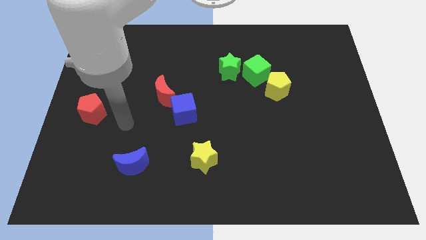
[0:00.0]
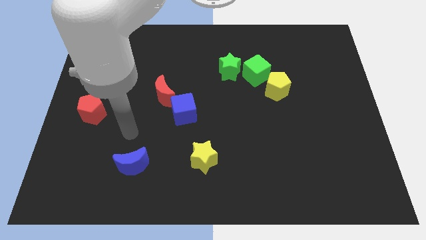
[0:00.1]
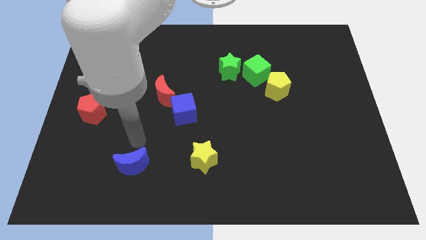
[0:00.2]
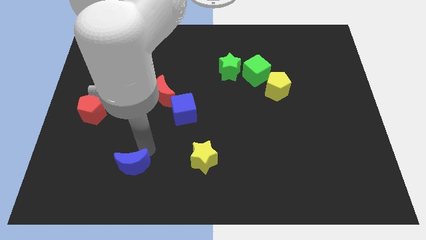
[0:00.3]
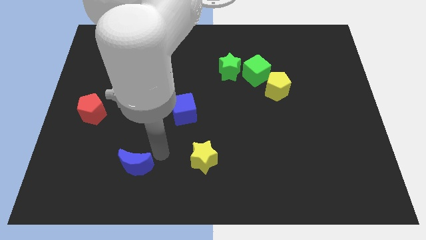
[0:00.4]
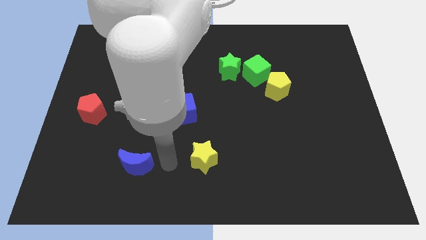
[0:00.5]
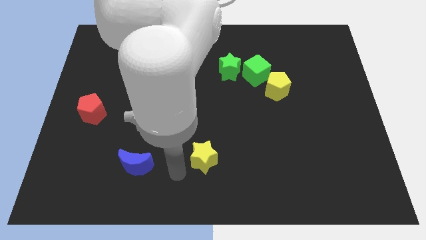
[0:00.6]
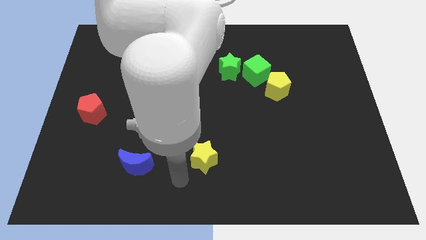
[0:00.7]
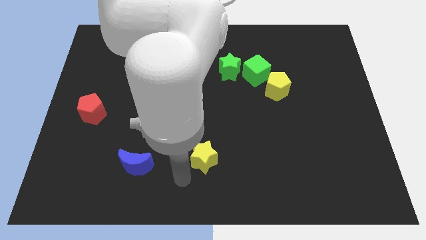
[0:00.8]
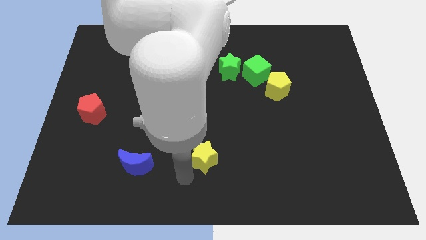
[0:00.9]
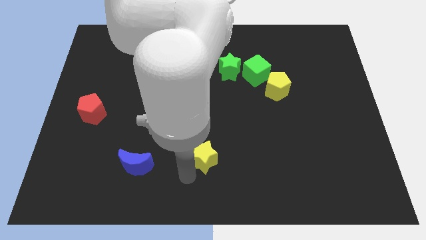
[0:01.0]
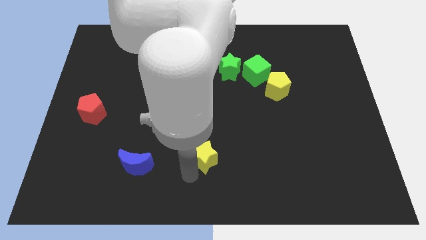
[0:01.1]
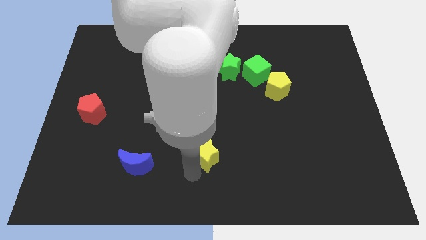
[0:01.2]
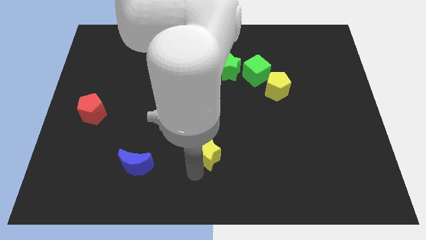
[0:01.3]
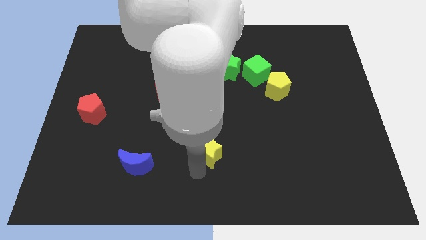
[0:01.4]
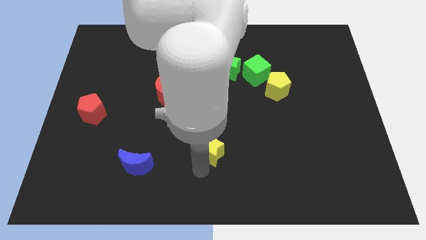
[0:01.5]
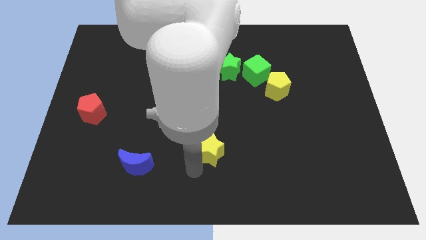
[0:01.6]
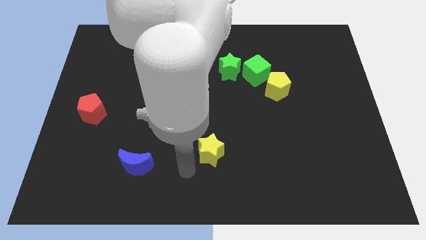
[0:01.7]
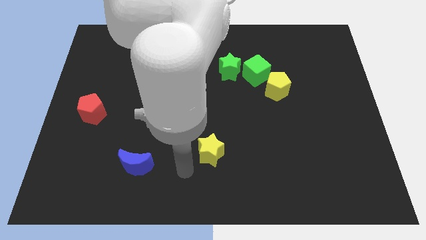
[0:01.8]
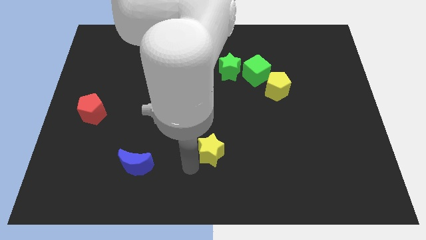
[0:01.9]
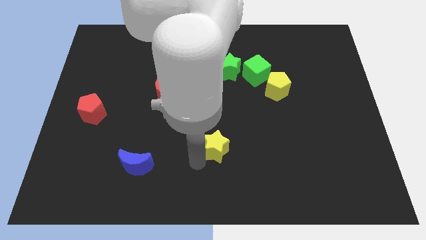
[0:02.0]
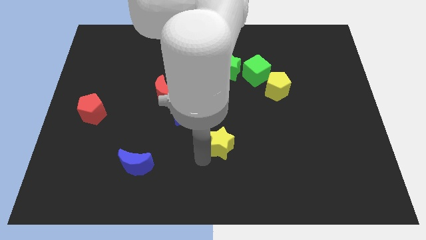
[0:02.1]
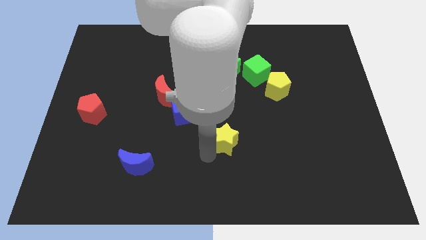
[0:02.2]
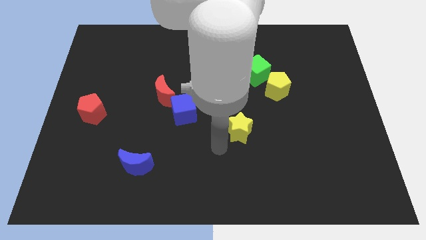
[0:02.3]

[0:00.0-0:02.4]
slide the yellow star upwards and right a little

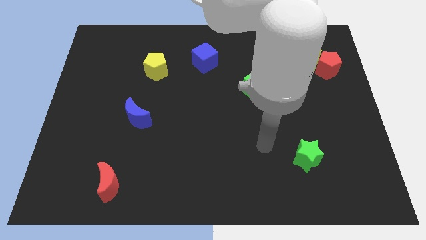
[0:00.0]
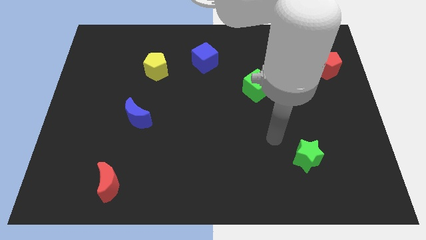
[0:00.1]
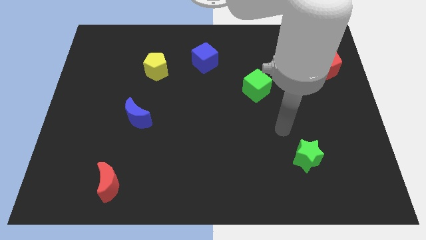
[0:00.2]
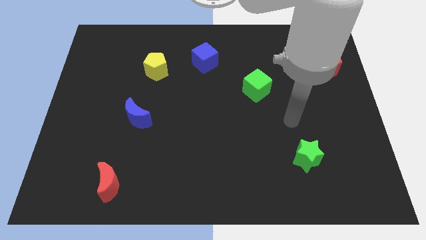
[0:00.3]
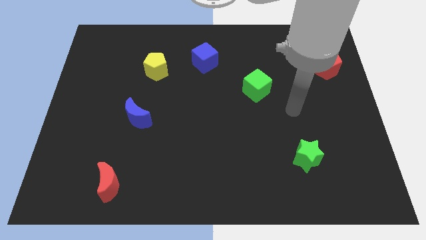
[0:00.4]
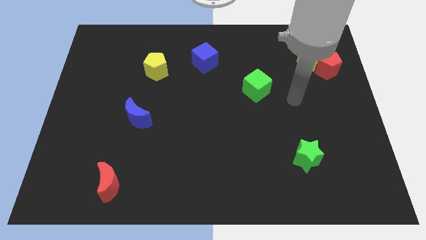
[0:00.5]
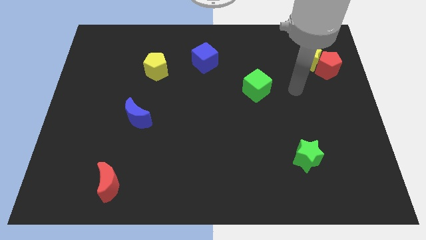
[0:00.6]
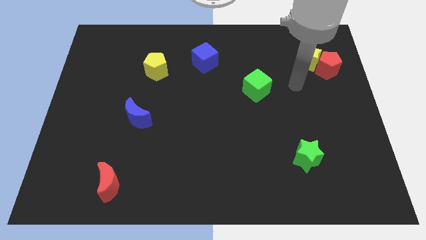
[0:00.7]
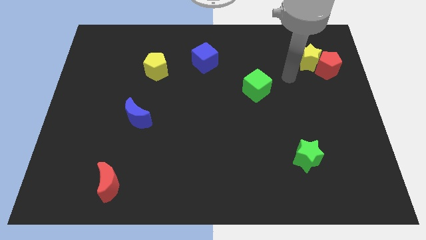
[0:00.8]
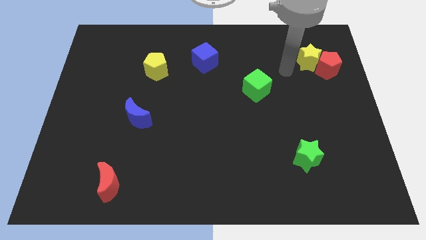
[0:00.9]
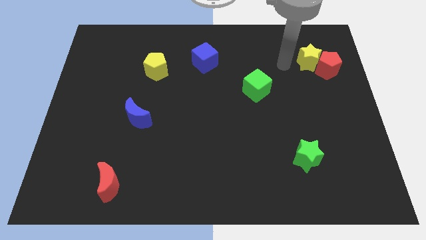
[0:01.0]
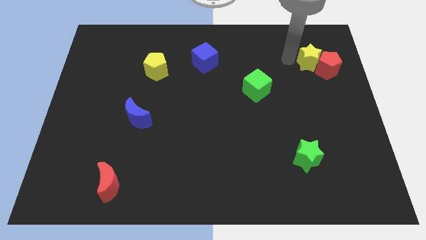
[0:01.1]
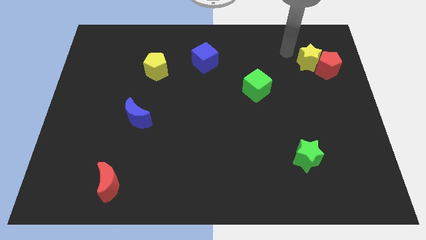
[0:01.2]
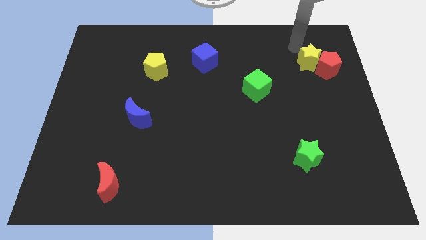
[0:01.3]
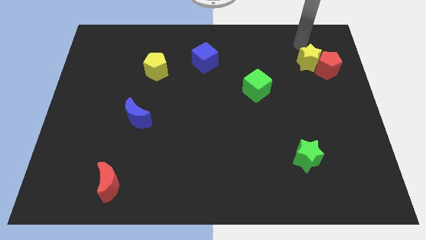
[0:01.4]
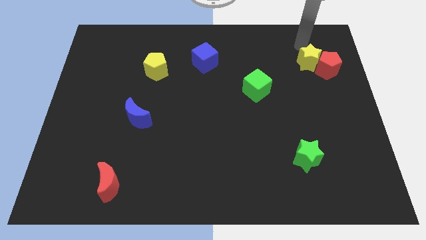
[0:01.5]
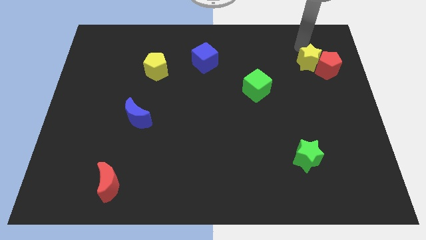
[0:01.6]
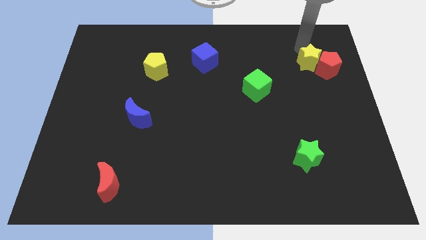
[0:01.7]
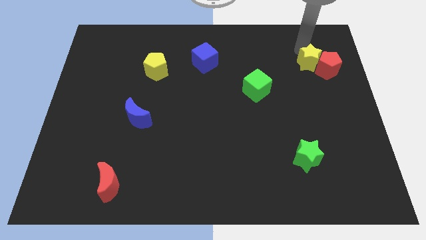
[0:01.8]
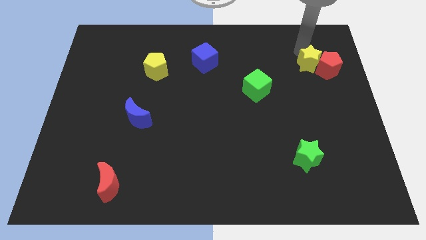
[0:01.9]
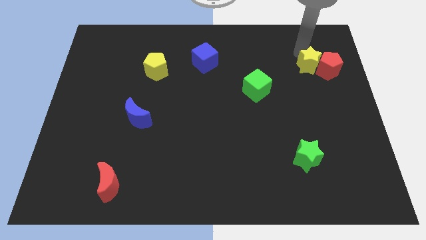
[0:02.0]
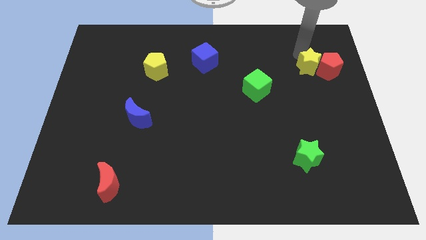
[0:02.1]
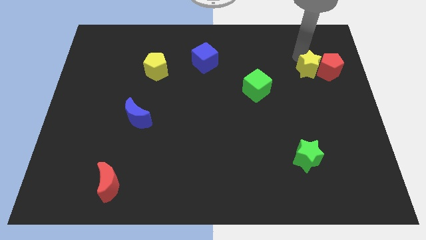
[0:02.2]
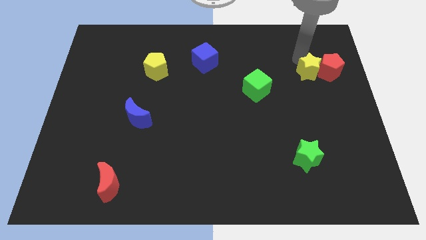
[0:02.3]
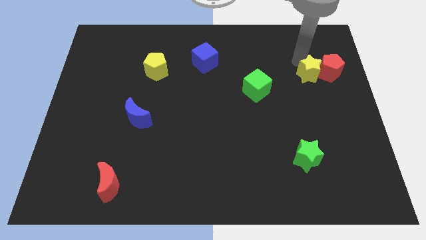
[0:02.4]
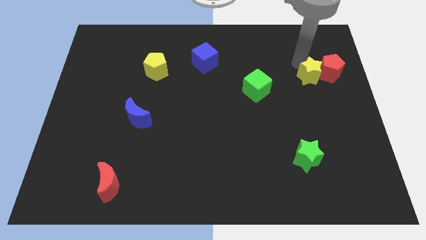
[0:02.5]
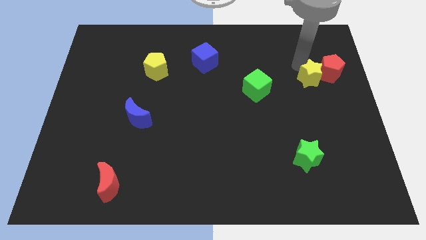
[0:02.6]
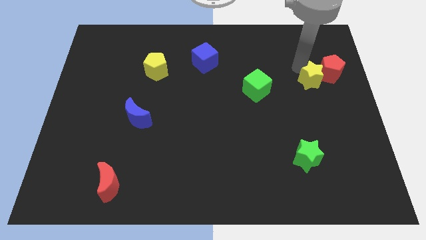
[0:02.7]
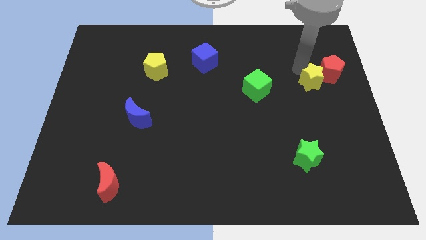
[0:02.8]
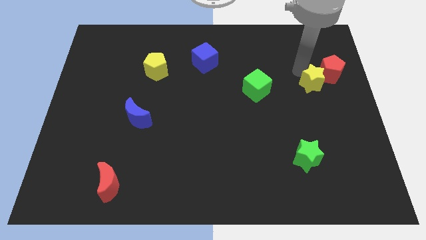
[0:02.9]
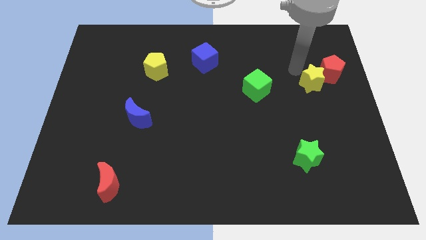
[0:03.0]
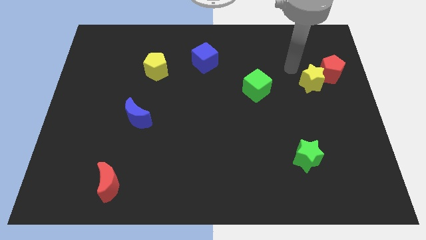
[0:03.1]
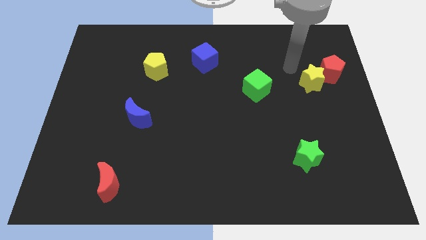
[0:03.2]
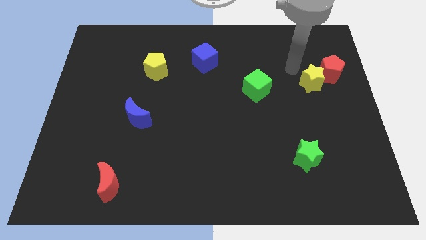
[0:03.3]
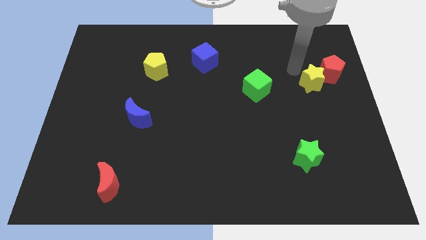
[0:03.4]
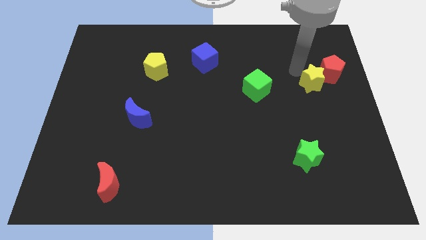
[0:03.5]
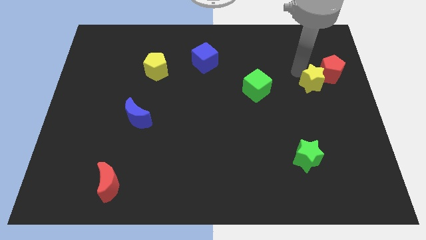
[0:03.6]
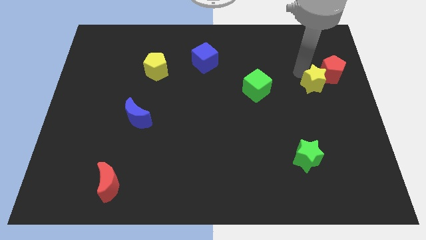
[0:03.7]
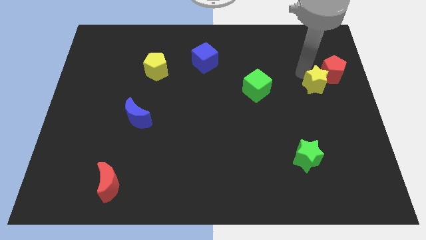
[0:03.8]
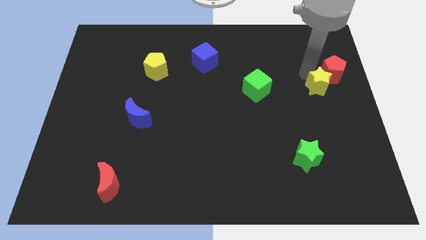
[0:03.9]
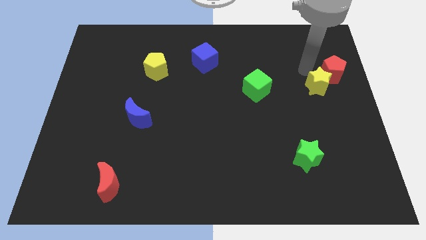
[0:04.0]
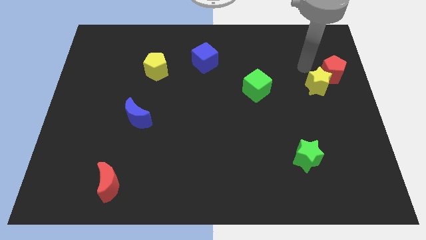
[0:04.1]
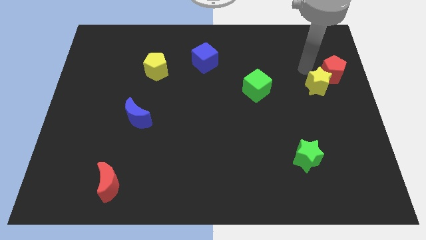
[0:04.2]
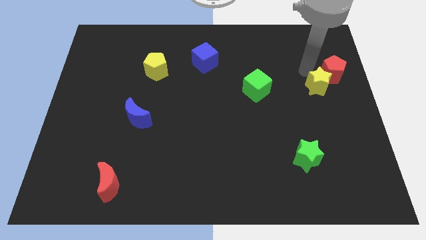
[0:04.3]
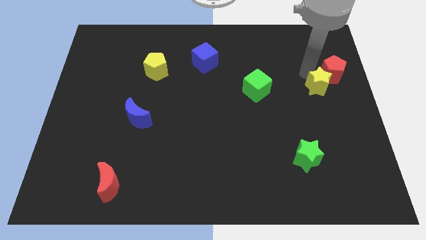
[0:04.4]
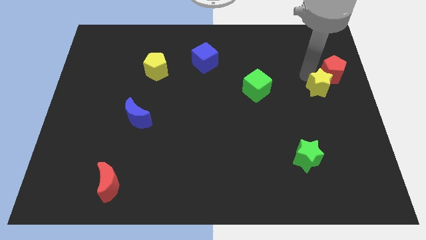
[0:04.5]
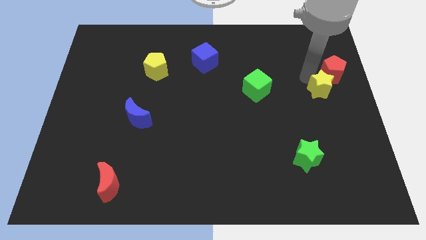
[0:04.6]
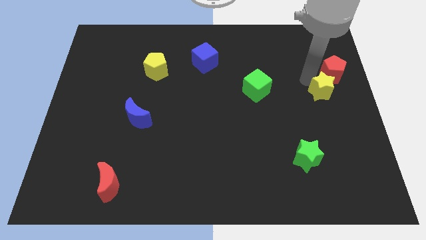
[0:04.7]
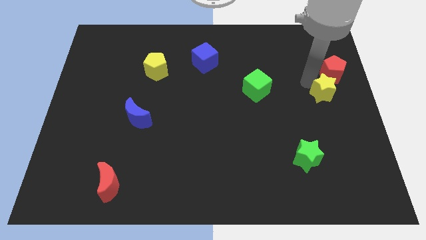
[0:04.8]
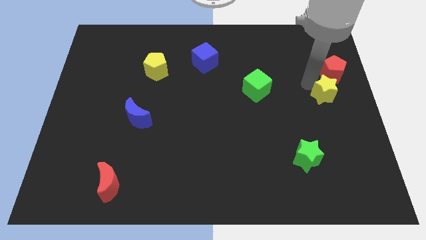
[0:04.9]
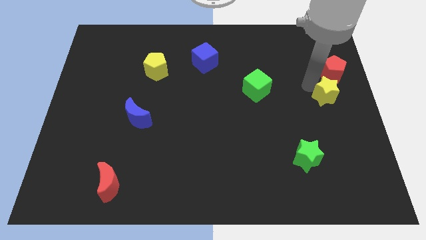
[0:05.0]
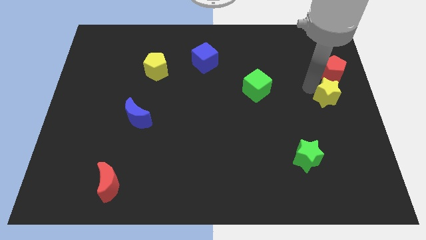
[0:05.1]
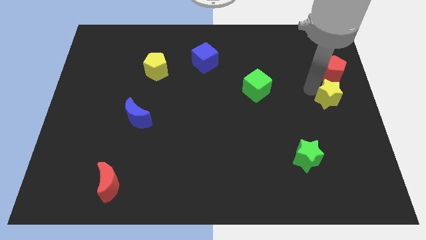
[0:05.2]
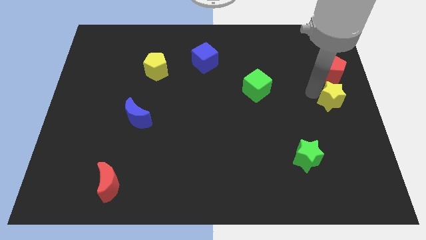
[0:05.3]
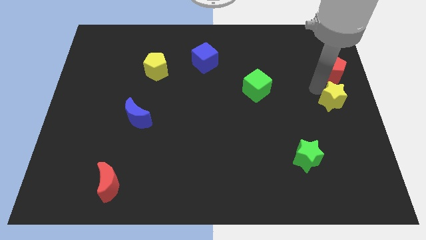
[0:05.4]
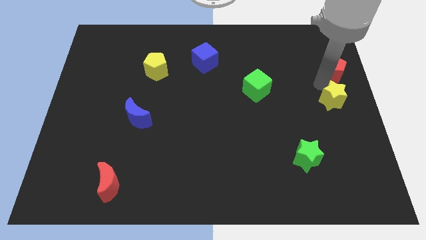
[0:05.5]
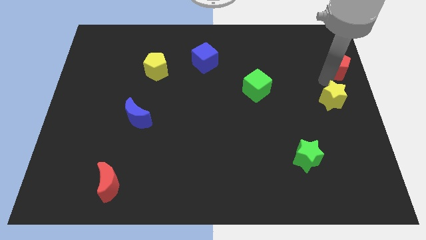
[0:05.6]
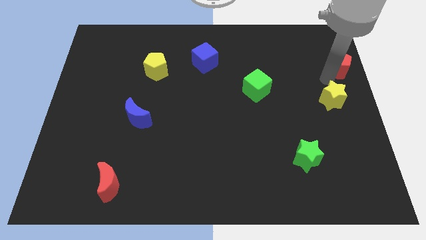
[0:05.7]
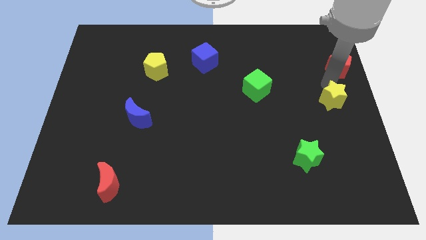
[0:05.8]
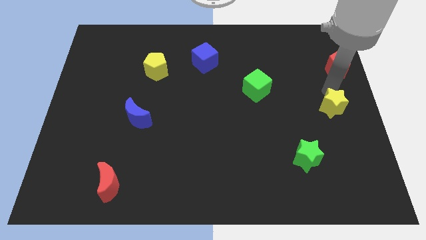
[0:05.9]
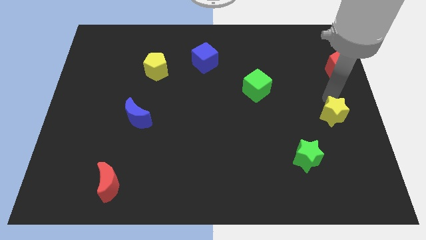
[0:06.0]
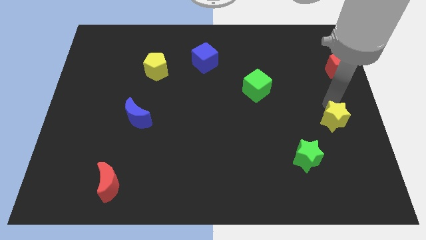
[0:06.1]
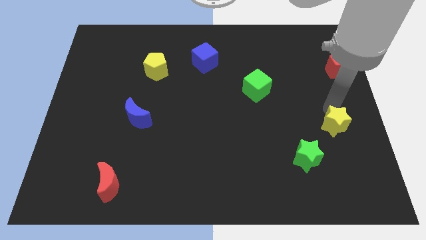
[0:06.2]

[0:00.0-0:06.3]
move the yellow star downwards
